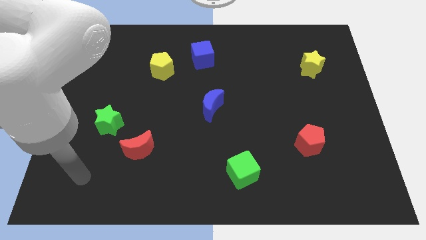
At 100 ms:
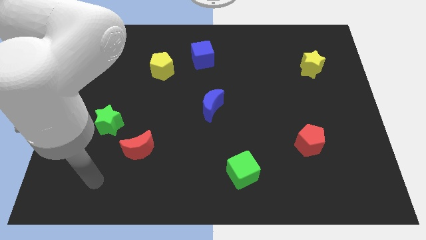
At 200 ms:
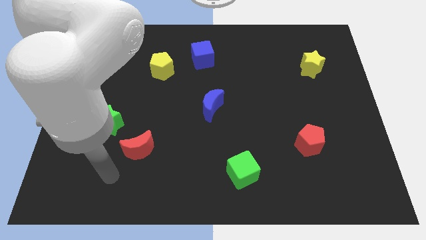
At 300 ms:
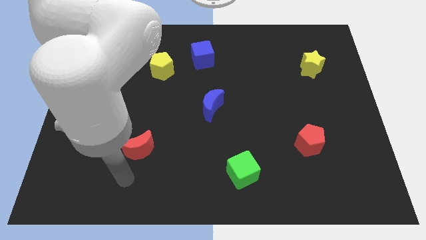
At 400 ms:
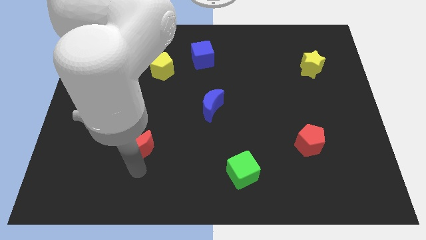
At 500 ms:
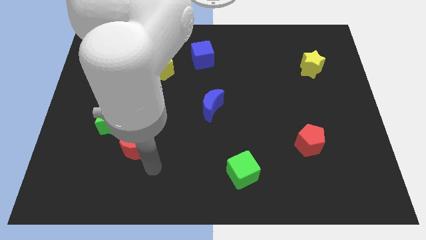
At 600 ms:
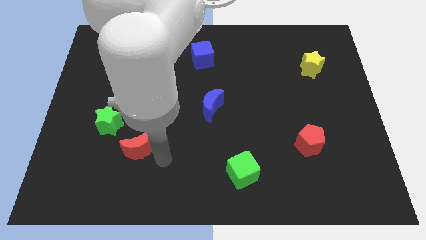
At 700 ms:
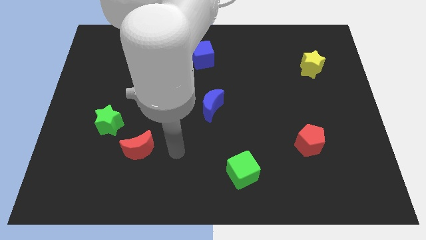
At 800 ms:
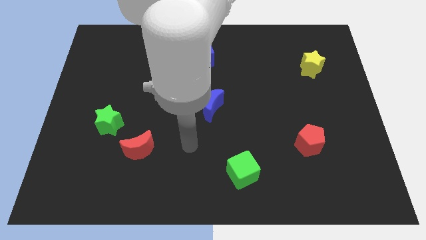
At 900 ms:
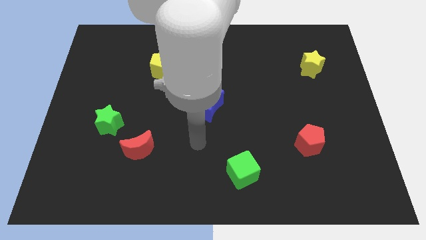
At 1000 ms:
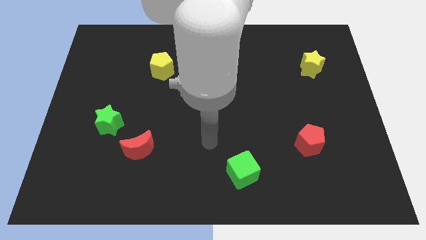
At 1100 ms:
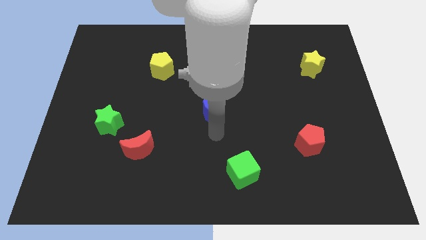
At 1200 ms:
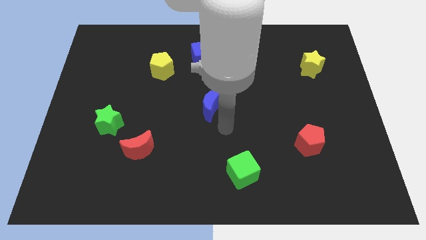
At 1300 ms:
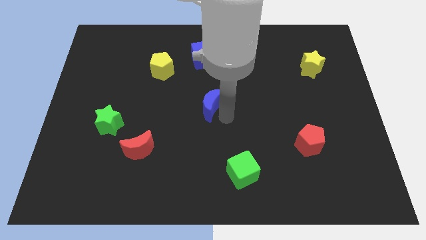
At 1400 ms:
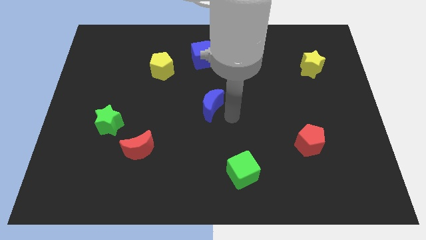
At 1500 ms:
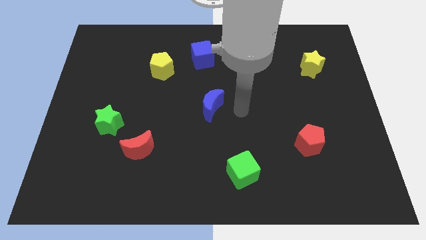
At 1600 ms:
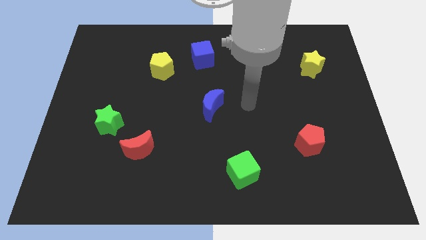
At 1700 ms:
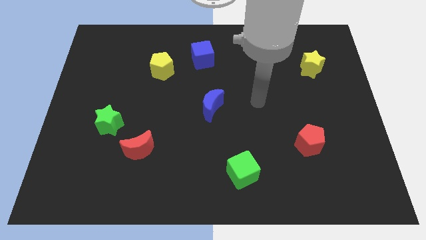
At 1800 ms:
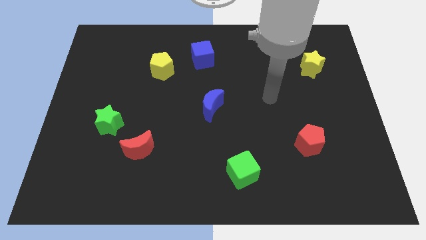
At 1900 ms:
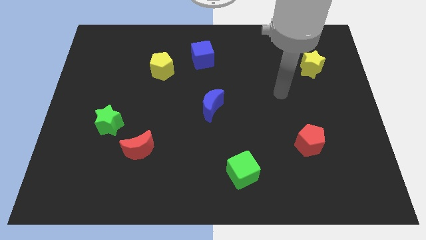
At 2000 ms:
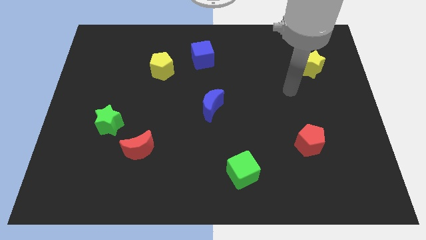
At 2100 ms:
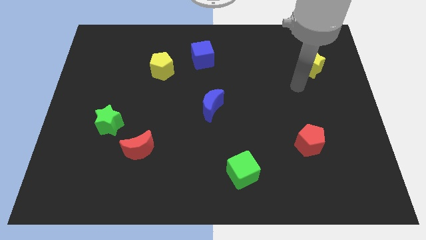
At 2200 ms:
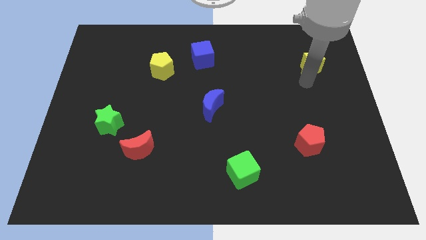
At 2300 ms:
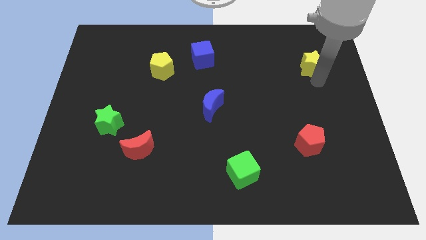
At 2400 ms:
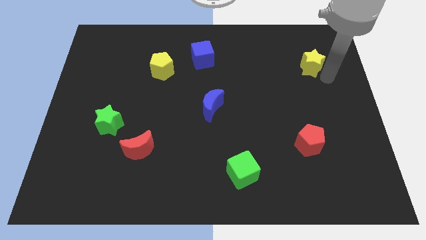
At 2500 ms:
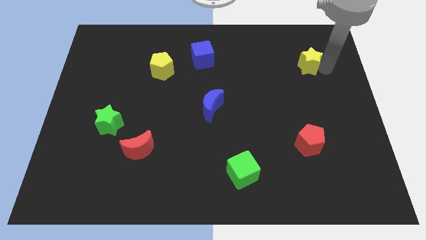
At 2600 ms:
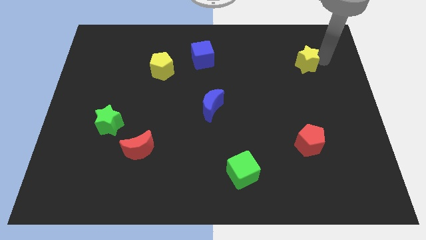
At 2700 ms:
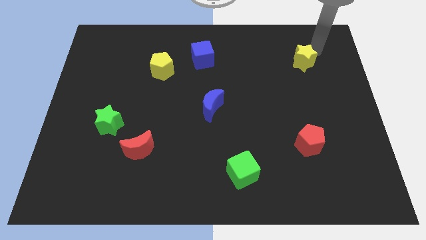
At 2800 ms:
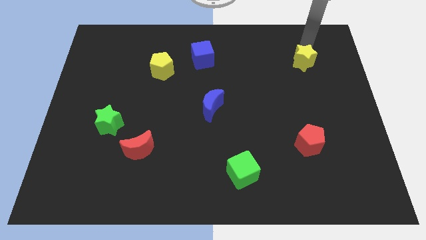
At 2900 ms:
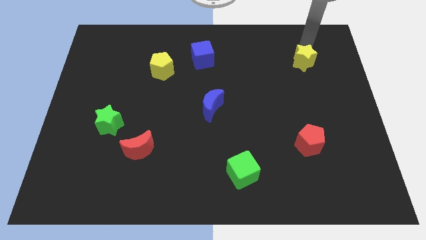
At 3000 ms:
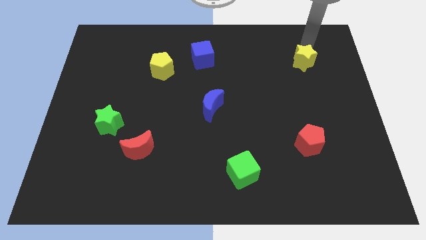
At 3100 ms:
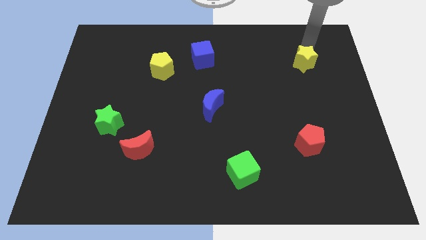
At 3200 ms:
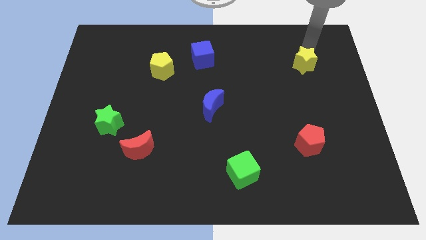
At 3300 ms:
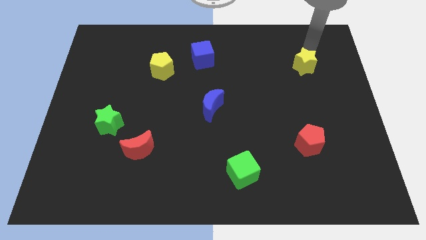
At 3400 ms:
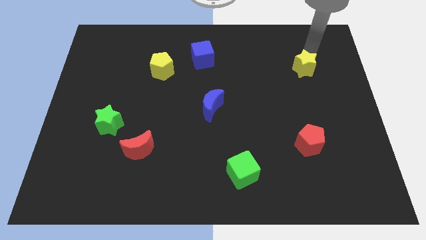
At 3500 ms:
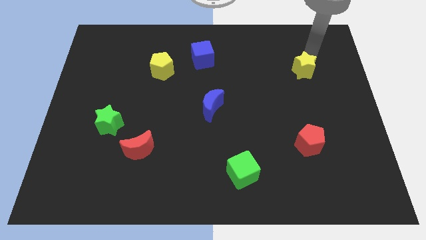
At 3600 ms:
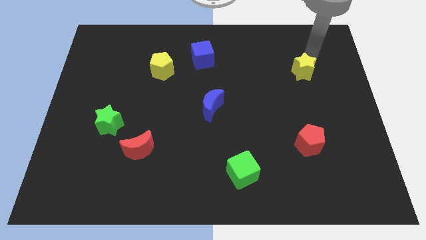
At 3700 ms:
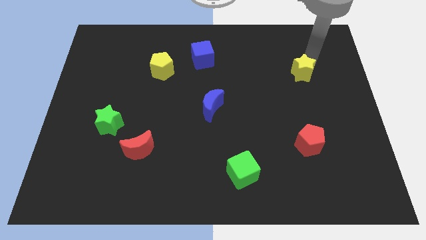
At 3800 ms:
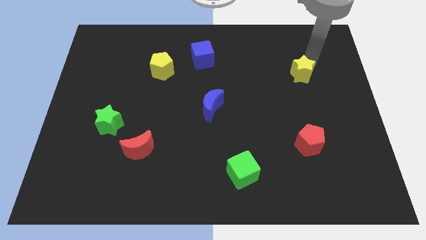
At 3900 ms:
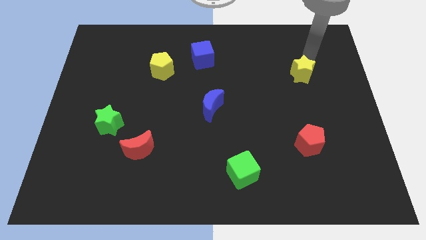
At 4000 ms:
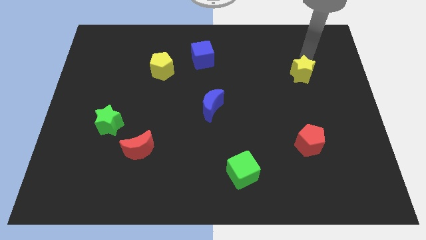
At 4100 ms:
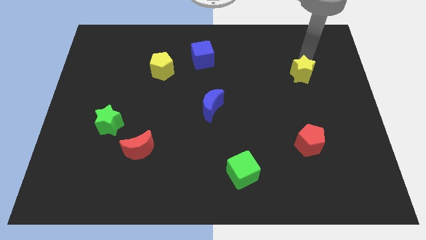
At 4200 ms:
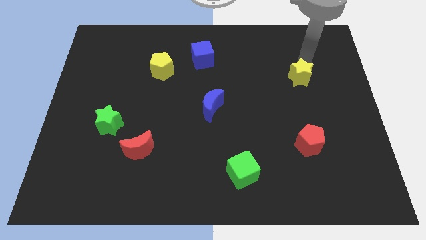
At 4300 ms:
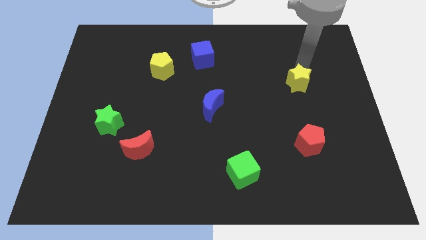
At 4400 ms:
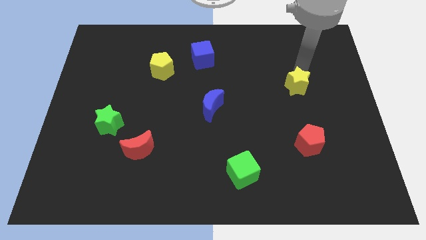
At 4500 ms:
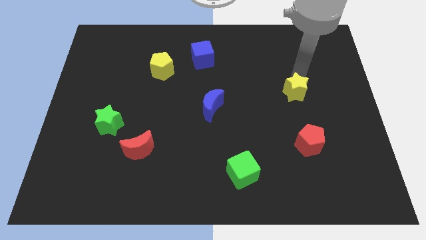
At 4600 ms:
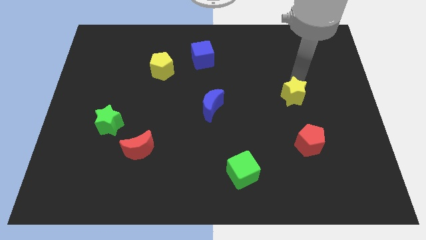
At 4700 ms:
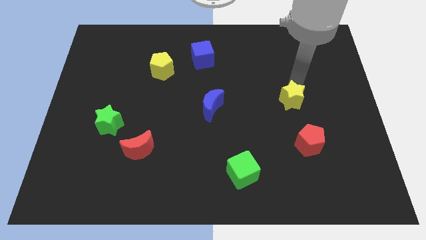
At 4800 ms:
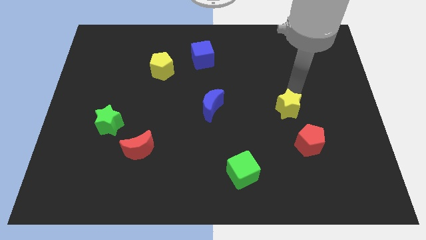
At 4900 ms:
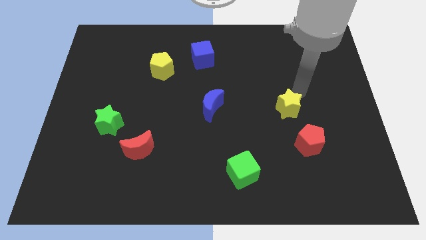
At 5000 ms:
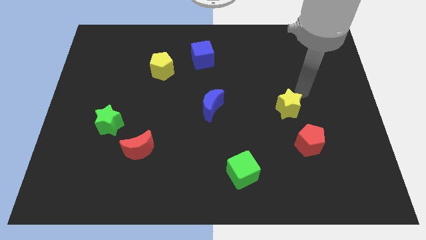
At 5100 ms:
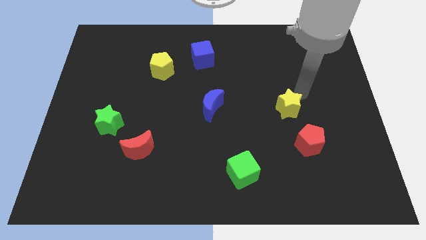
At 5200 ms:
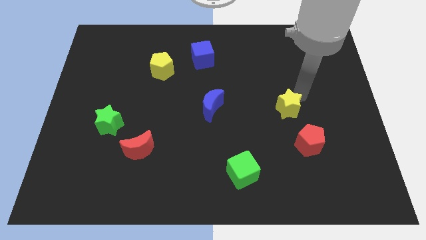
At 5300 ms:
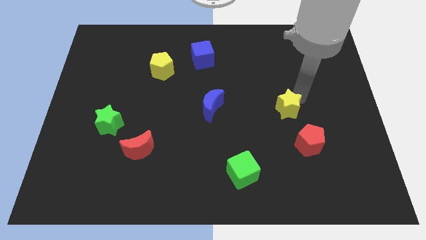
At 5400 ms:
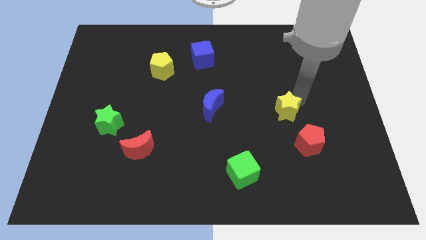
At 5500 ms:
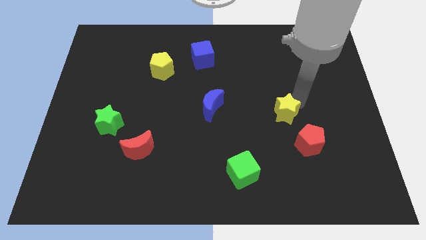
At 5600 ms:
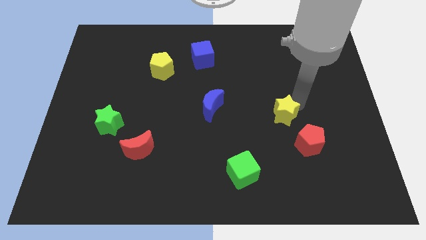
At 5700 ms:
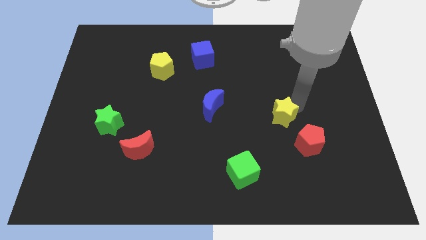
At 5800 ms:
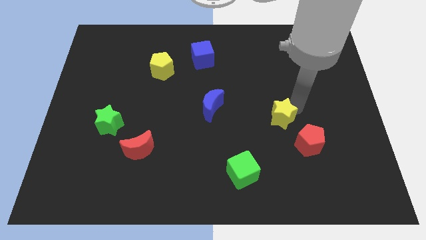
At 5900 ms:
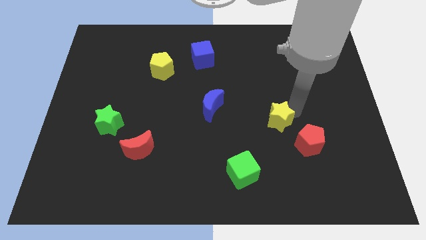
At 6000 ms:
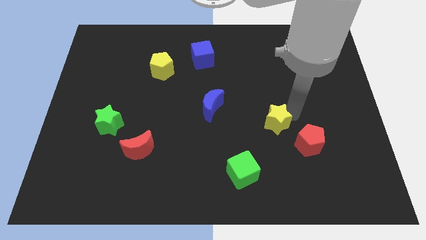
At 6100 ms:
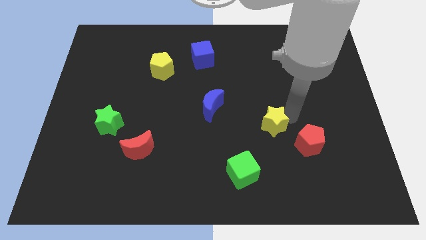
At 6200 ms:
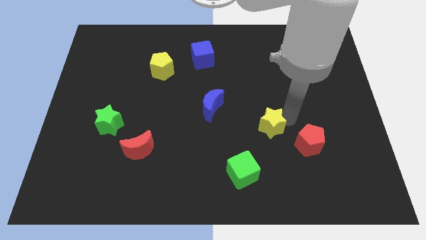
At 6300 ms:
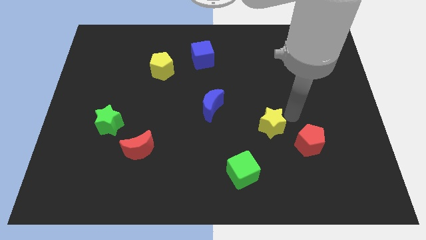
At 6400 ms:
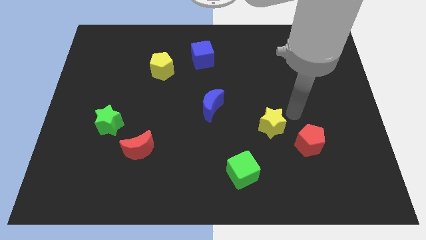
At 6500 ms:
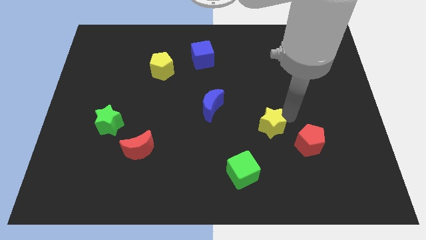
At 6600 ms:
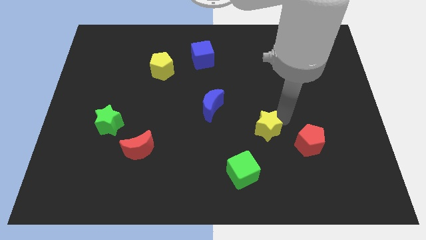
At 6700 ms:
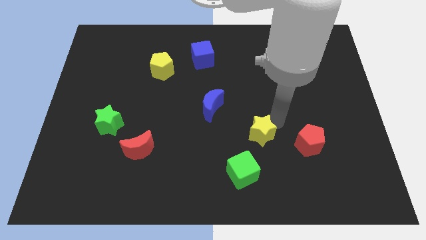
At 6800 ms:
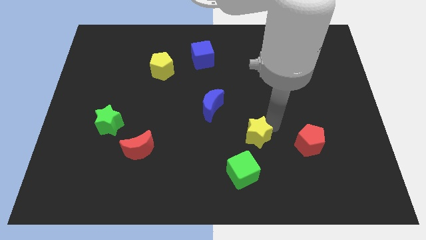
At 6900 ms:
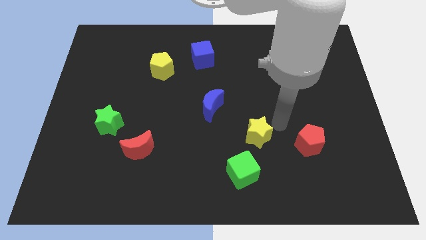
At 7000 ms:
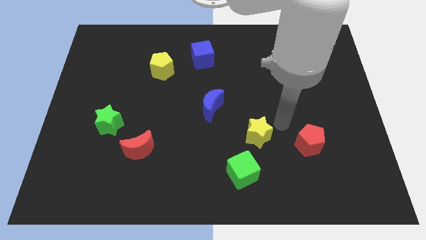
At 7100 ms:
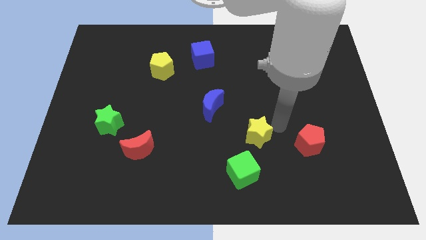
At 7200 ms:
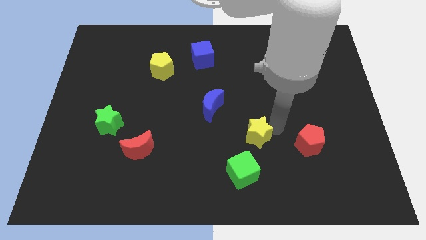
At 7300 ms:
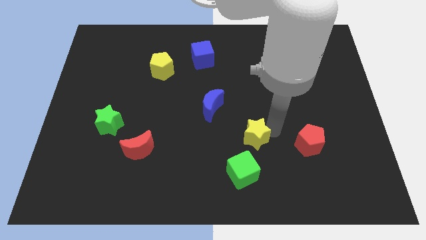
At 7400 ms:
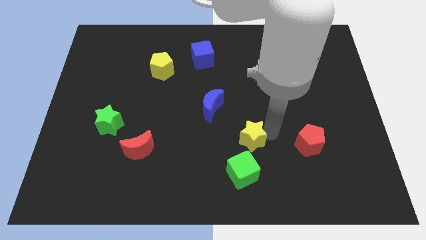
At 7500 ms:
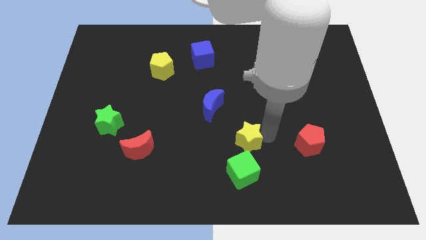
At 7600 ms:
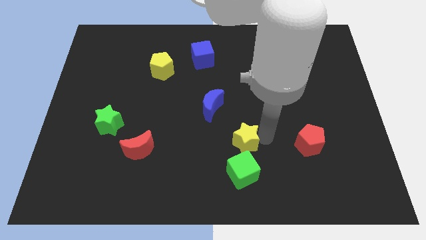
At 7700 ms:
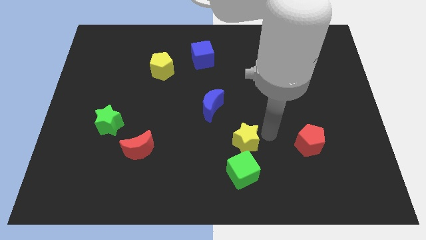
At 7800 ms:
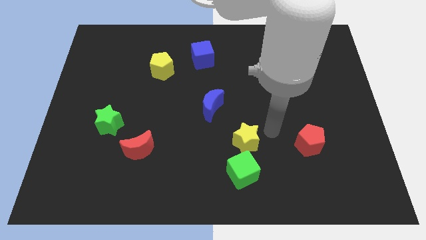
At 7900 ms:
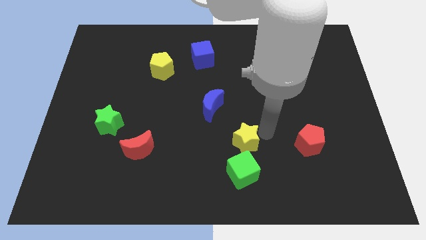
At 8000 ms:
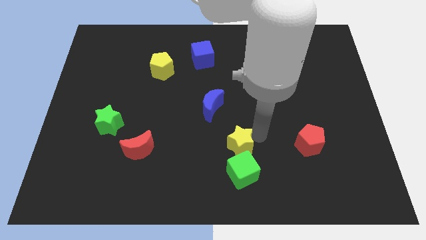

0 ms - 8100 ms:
put the yellow star to the top left of the green cube
